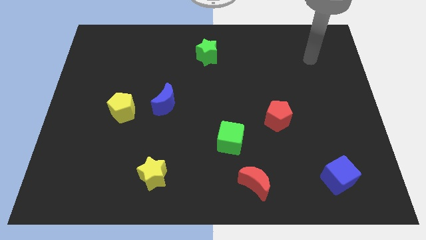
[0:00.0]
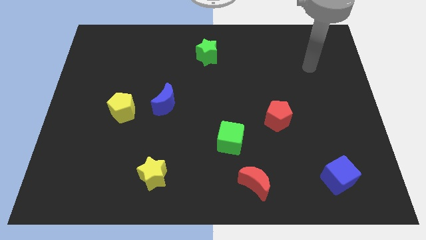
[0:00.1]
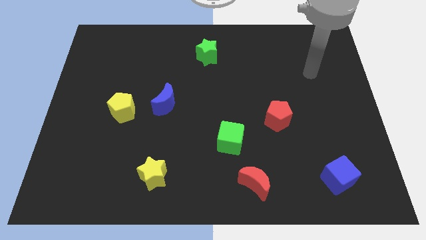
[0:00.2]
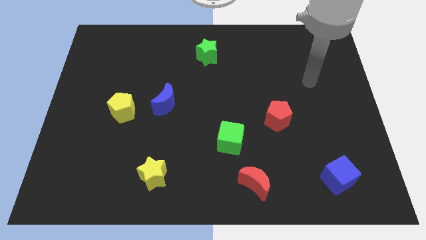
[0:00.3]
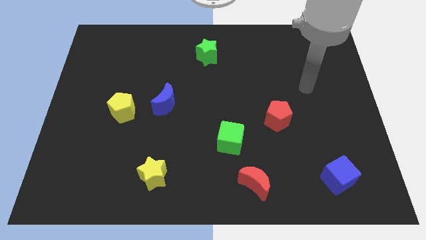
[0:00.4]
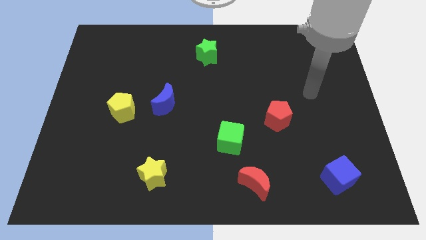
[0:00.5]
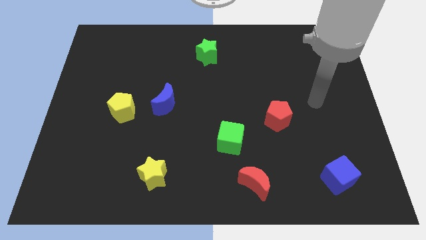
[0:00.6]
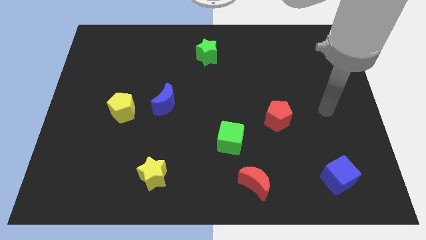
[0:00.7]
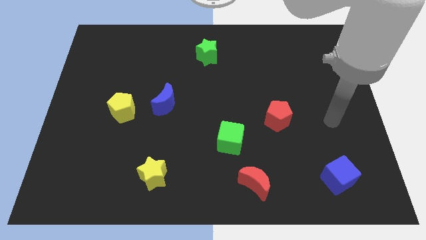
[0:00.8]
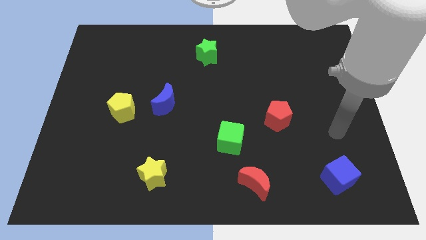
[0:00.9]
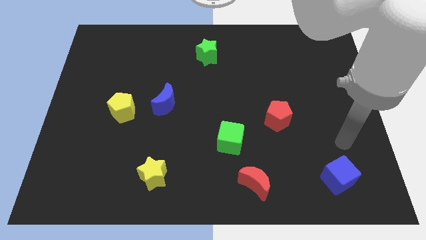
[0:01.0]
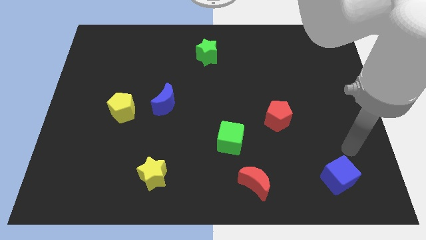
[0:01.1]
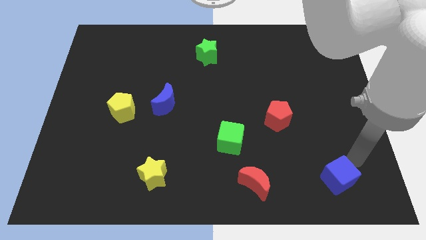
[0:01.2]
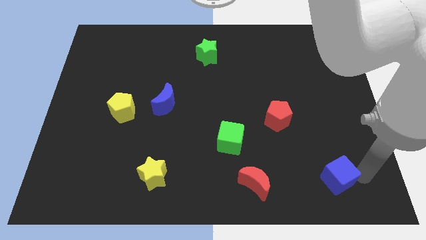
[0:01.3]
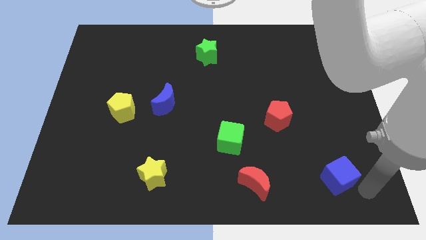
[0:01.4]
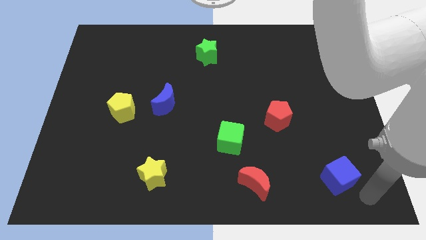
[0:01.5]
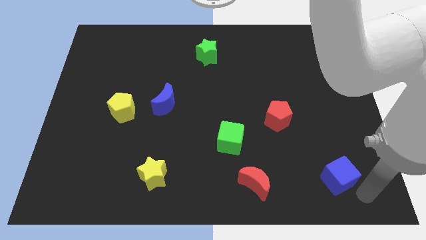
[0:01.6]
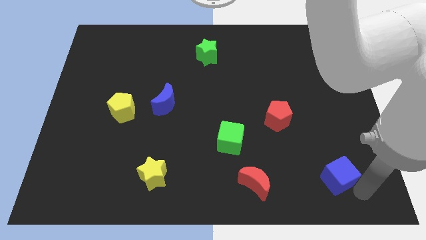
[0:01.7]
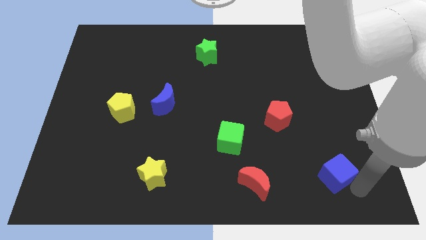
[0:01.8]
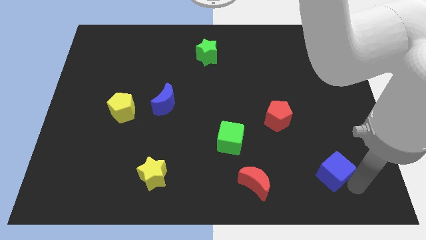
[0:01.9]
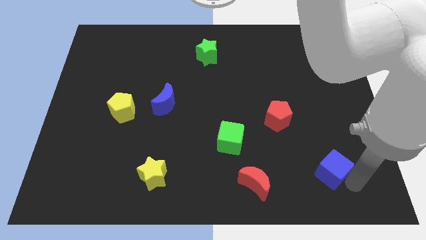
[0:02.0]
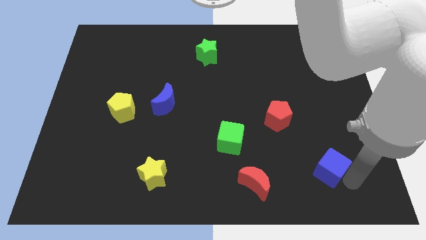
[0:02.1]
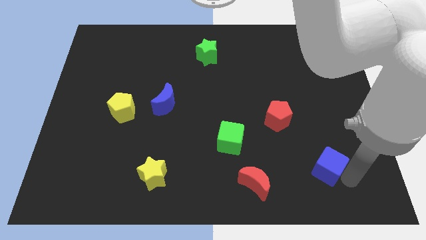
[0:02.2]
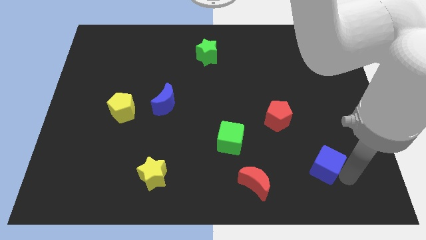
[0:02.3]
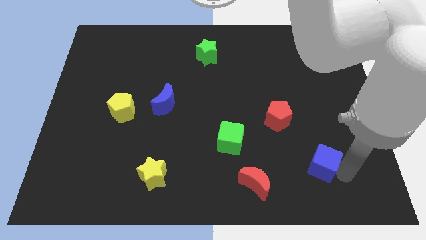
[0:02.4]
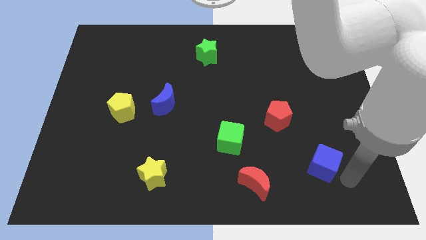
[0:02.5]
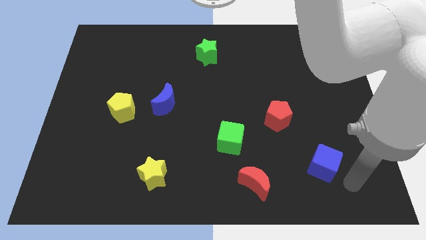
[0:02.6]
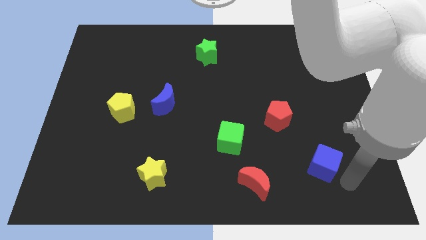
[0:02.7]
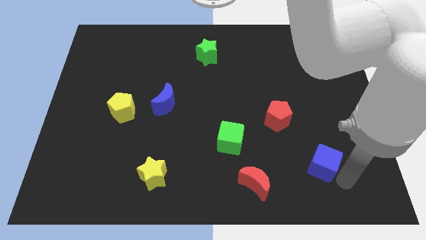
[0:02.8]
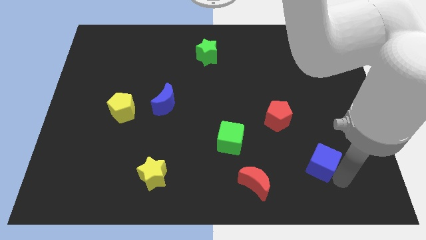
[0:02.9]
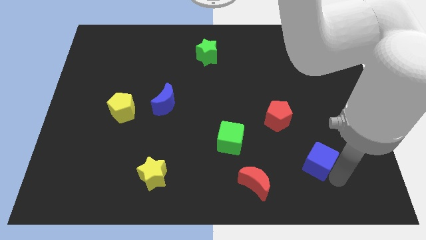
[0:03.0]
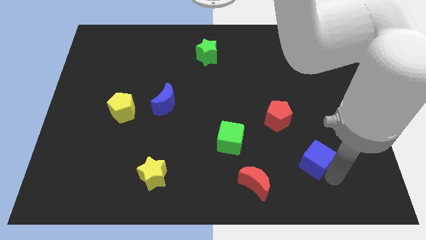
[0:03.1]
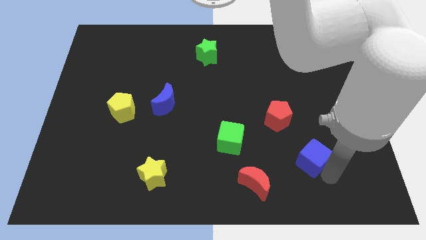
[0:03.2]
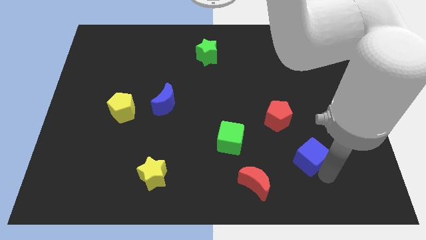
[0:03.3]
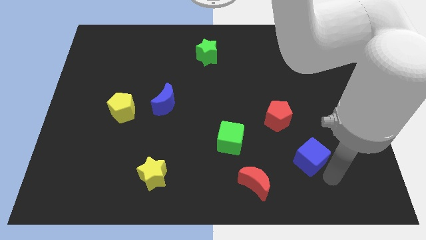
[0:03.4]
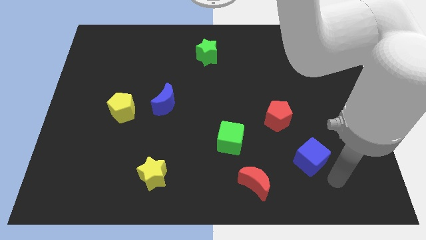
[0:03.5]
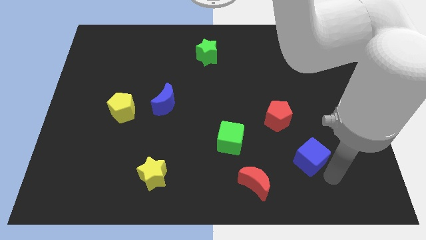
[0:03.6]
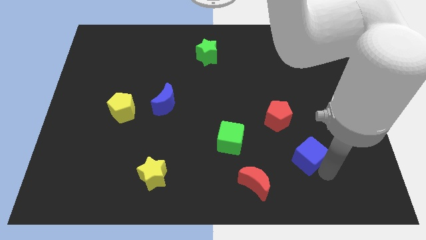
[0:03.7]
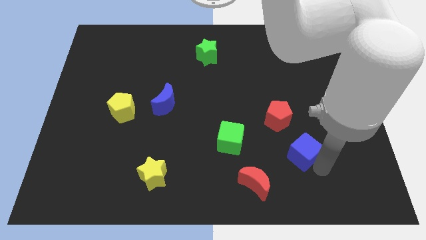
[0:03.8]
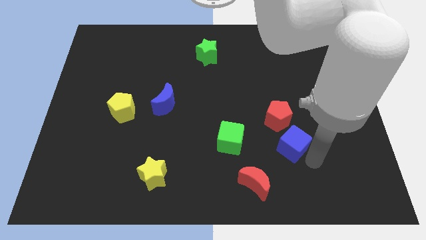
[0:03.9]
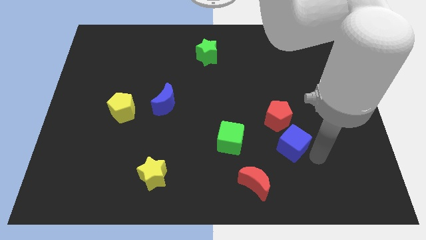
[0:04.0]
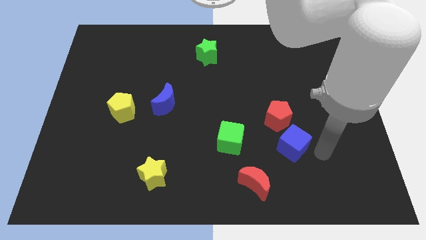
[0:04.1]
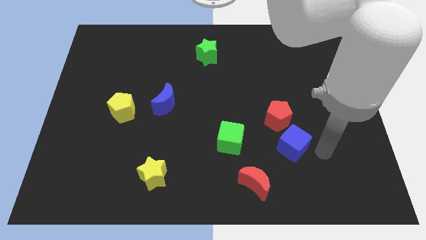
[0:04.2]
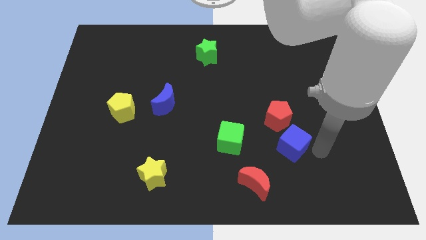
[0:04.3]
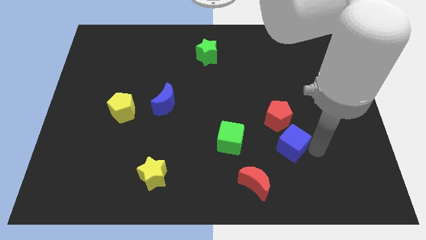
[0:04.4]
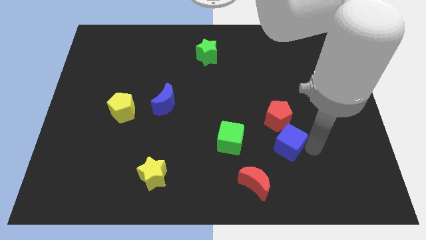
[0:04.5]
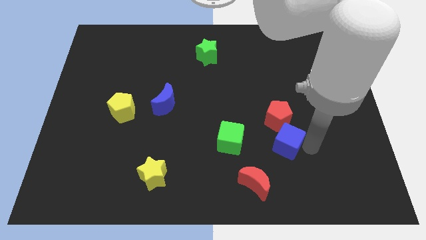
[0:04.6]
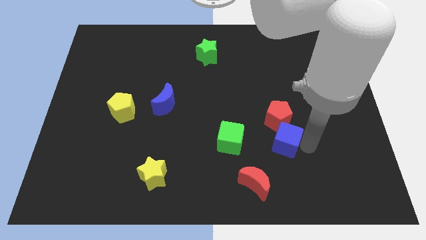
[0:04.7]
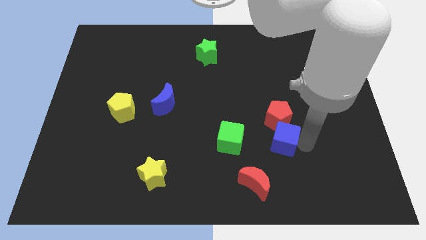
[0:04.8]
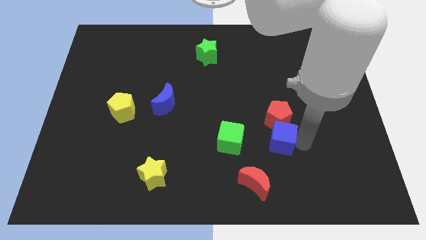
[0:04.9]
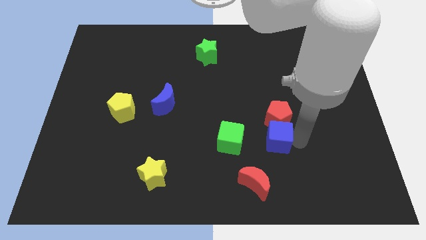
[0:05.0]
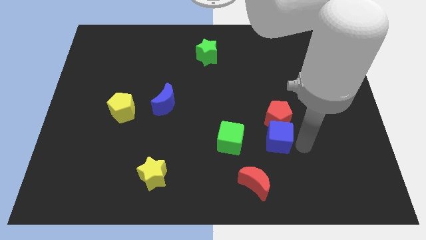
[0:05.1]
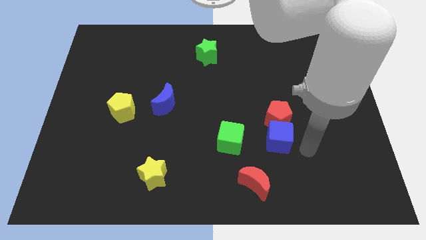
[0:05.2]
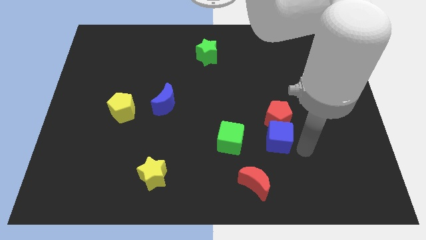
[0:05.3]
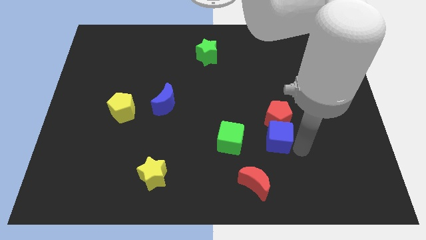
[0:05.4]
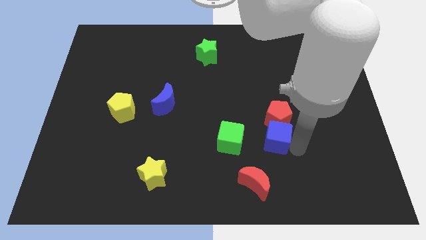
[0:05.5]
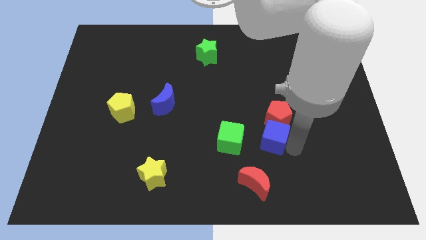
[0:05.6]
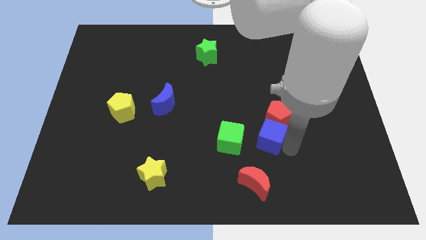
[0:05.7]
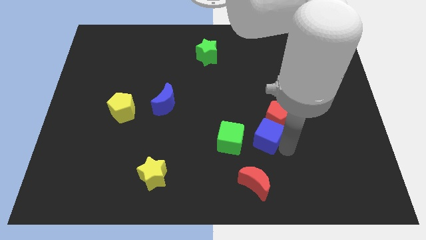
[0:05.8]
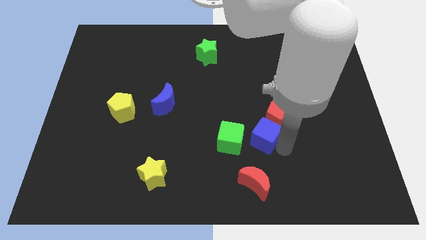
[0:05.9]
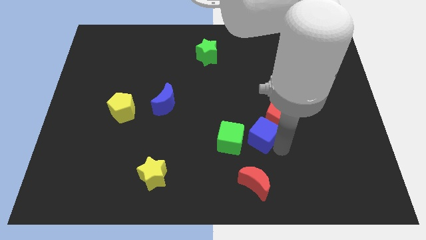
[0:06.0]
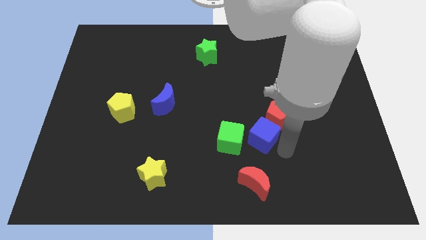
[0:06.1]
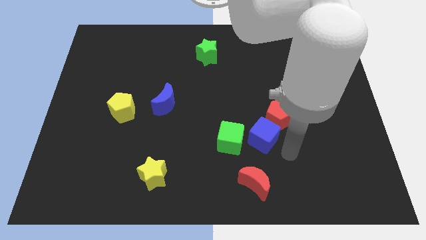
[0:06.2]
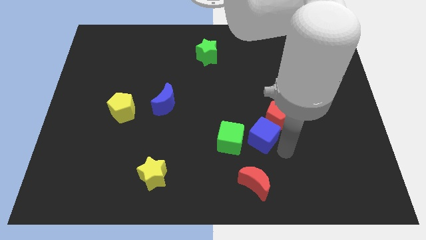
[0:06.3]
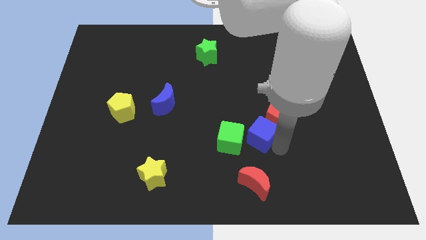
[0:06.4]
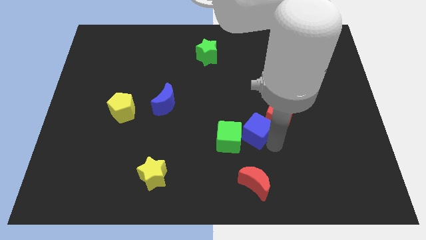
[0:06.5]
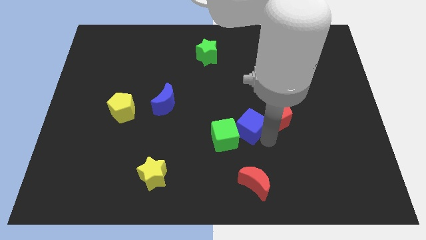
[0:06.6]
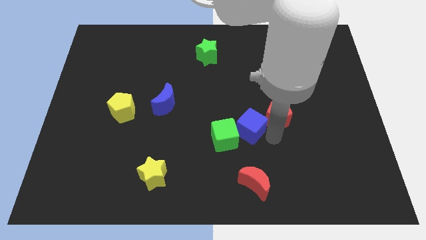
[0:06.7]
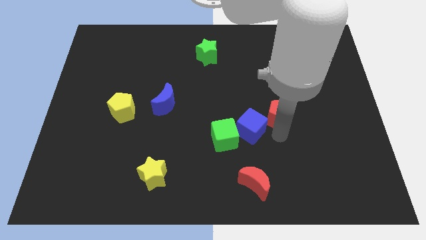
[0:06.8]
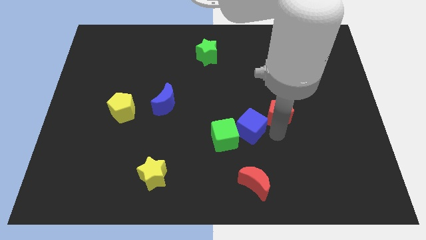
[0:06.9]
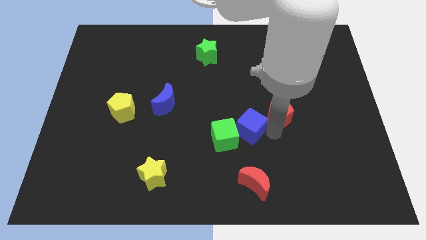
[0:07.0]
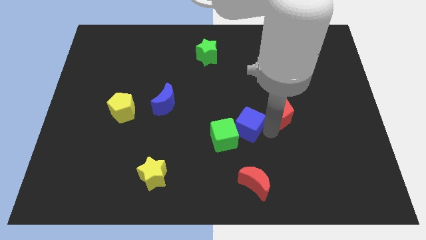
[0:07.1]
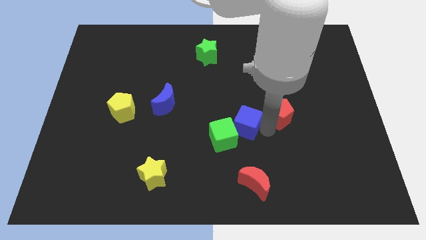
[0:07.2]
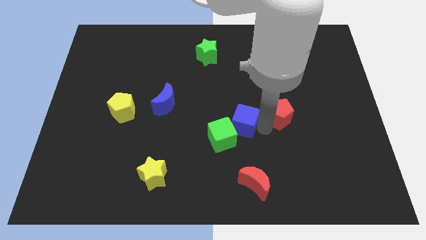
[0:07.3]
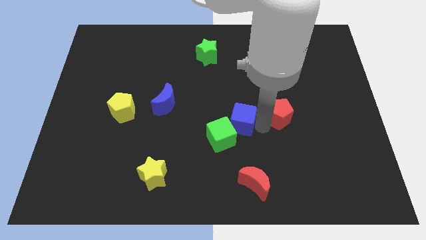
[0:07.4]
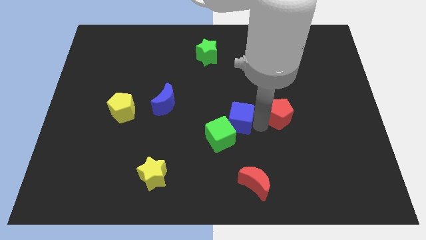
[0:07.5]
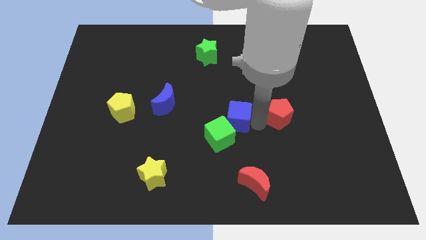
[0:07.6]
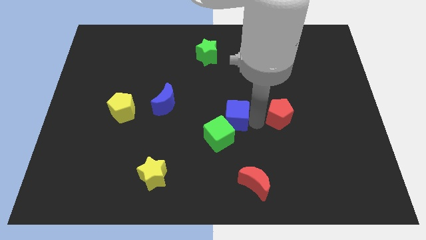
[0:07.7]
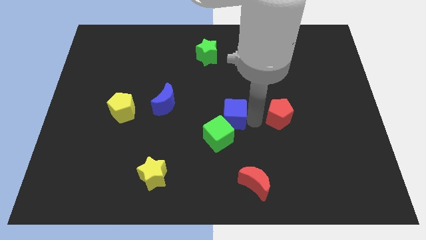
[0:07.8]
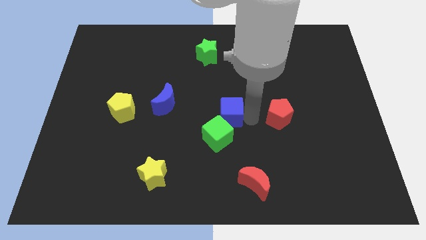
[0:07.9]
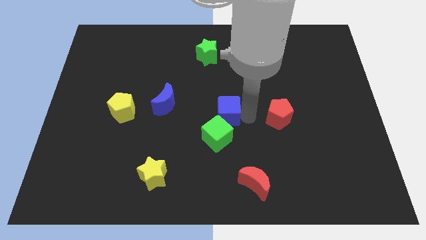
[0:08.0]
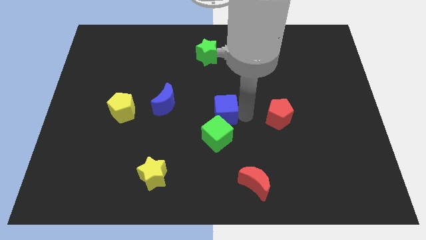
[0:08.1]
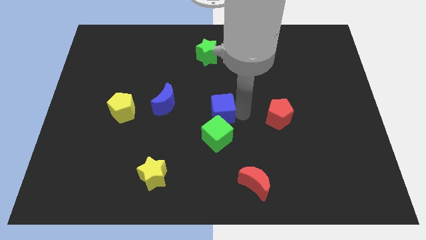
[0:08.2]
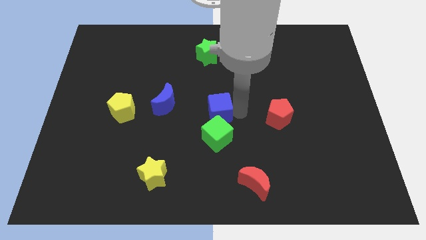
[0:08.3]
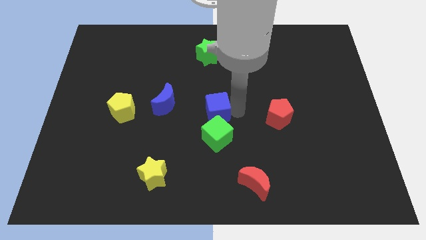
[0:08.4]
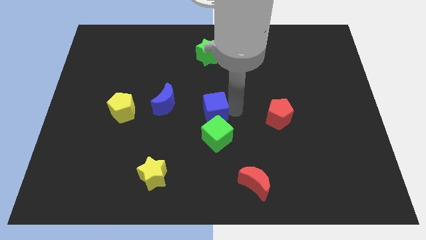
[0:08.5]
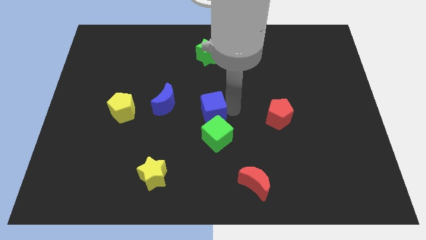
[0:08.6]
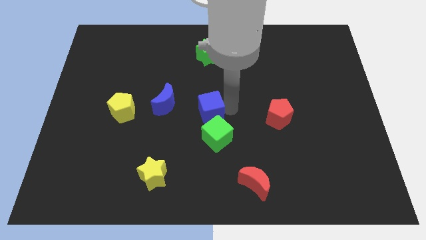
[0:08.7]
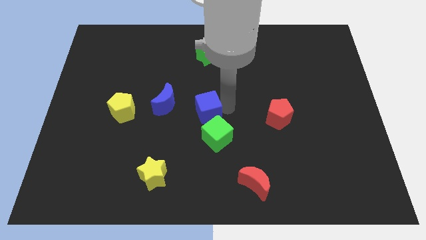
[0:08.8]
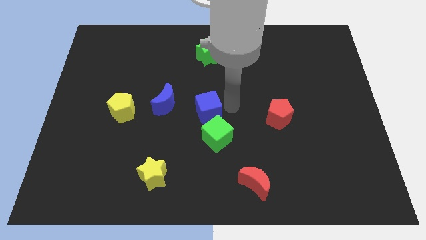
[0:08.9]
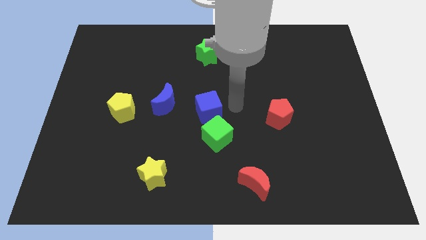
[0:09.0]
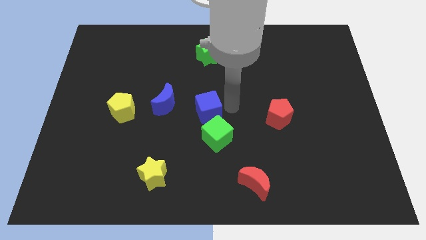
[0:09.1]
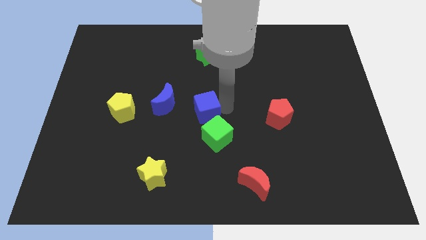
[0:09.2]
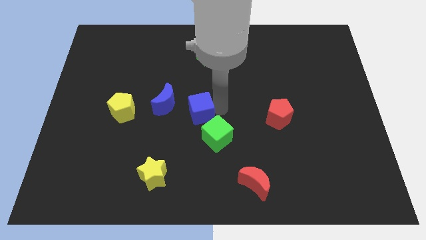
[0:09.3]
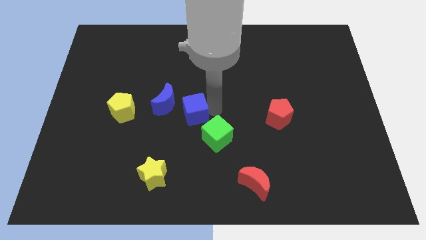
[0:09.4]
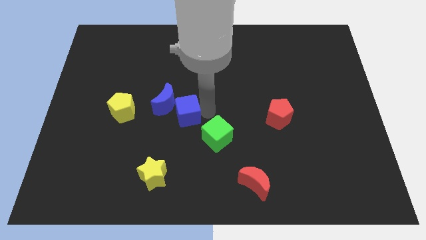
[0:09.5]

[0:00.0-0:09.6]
put the blue cube close to the blue moon
